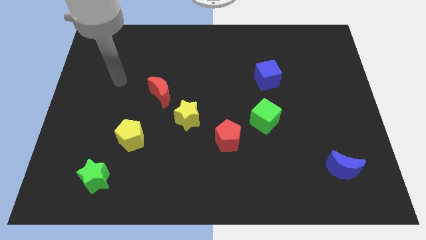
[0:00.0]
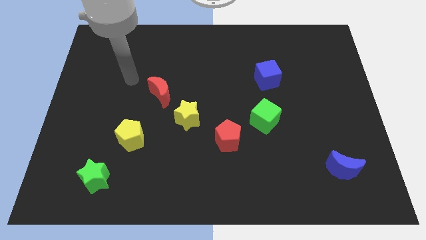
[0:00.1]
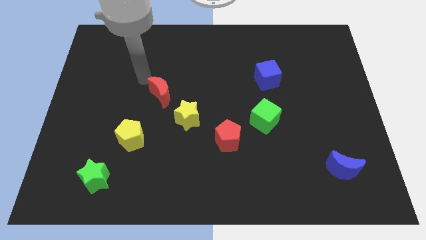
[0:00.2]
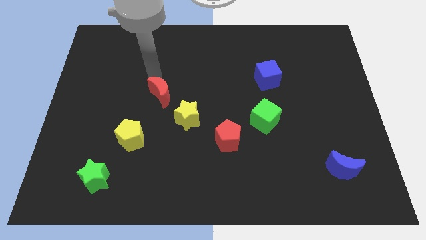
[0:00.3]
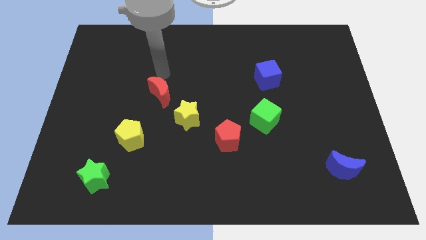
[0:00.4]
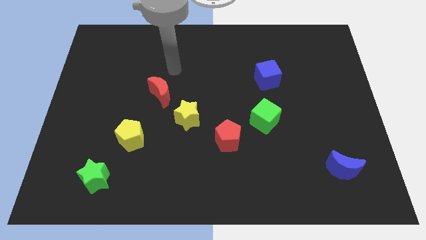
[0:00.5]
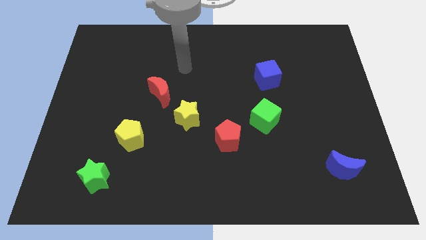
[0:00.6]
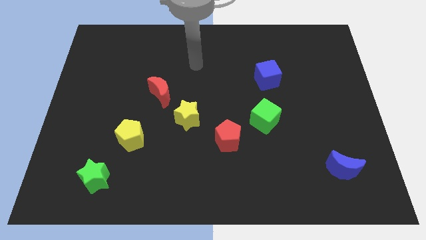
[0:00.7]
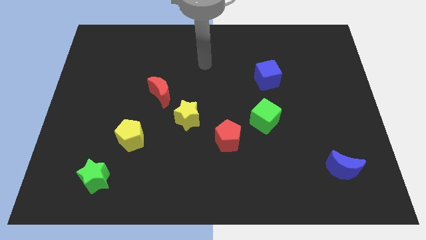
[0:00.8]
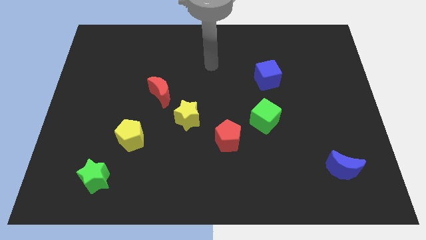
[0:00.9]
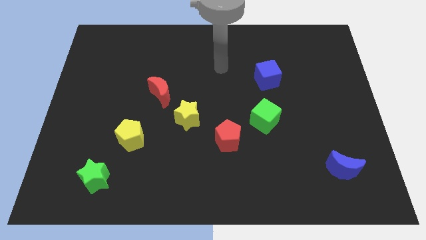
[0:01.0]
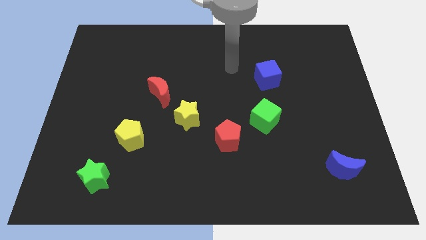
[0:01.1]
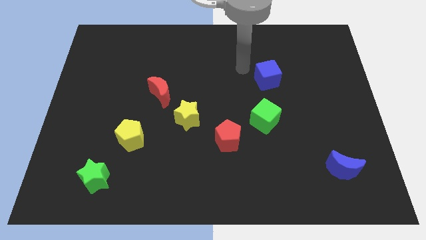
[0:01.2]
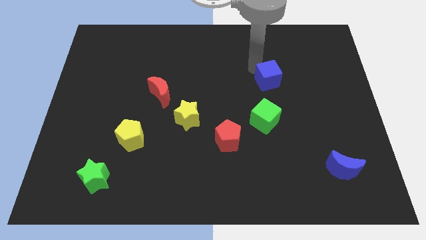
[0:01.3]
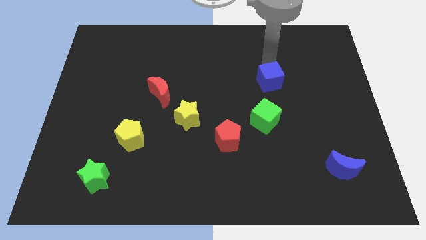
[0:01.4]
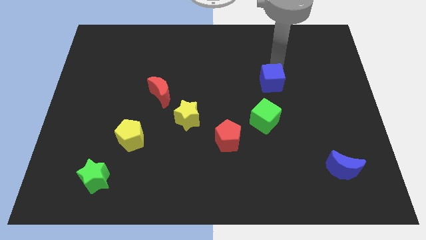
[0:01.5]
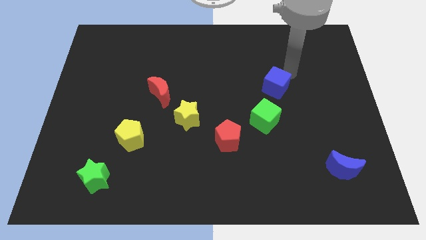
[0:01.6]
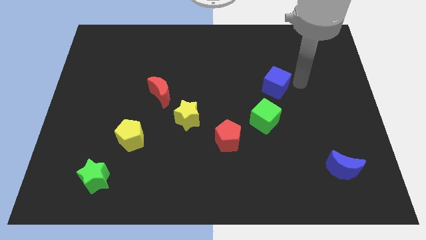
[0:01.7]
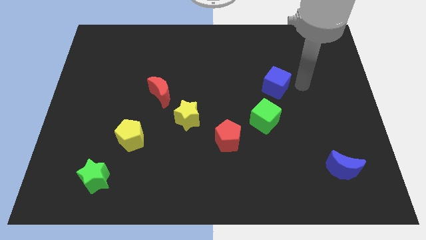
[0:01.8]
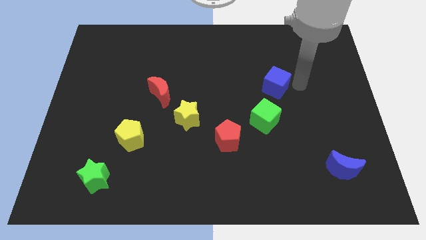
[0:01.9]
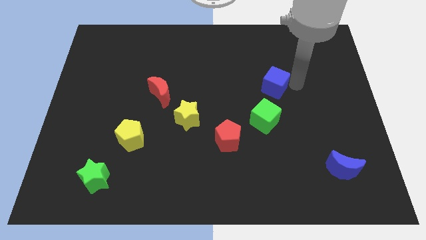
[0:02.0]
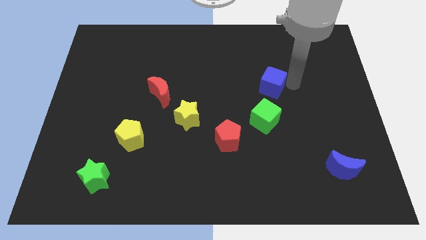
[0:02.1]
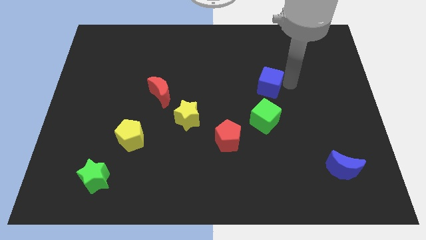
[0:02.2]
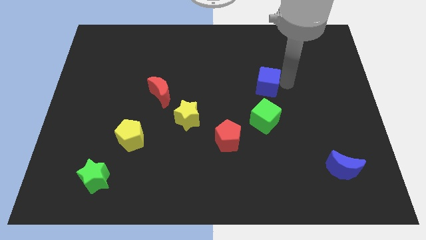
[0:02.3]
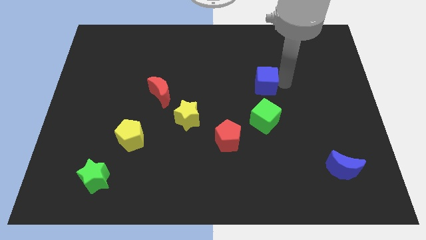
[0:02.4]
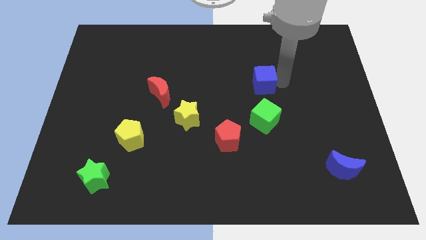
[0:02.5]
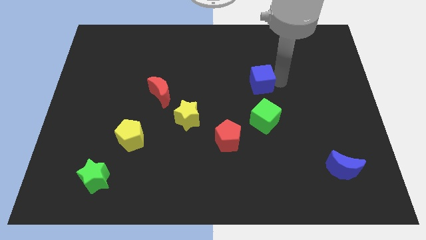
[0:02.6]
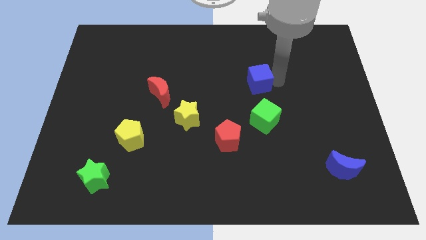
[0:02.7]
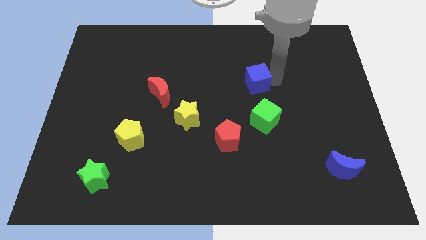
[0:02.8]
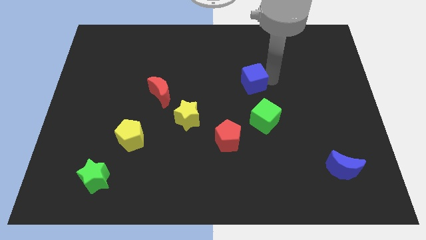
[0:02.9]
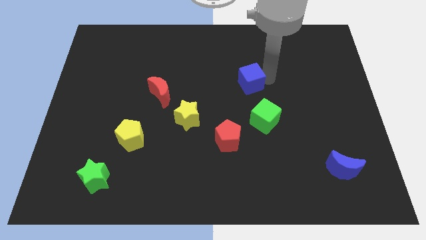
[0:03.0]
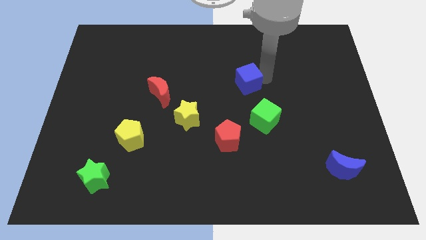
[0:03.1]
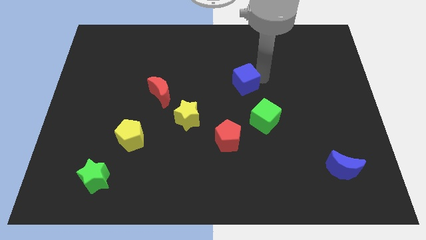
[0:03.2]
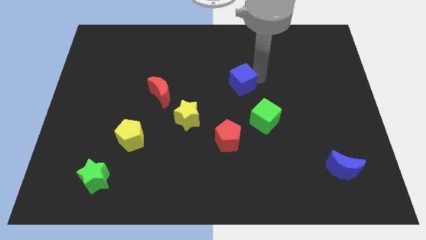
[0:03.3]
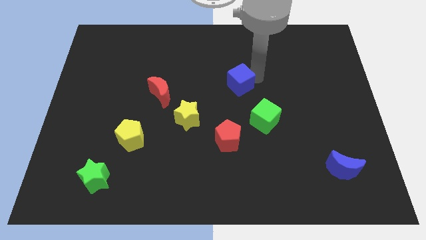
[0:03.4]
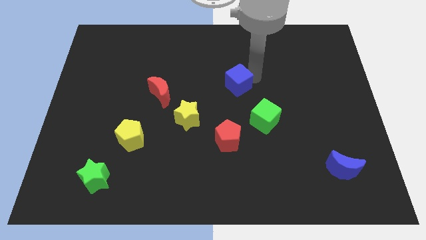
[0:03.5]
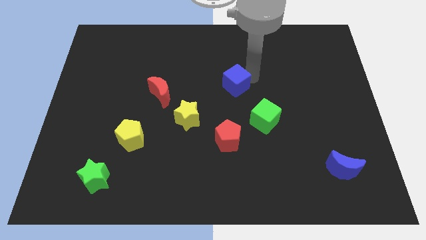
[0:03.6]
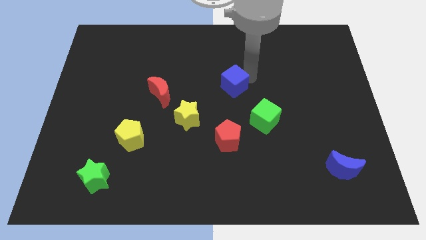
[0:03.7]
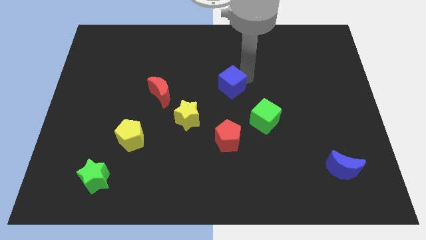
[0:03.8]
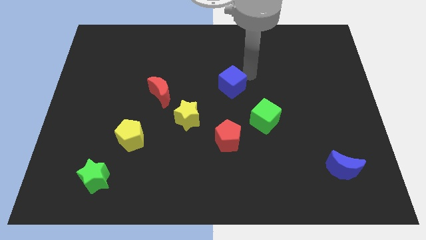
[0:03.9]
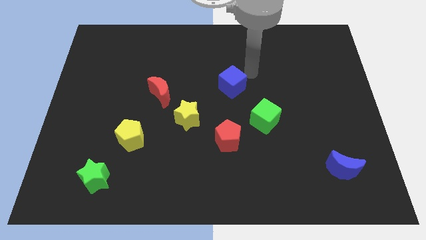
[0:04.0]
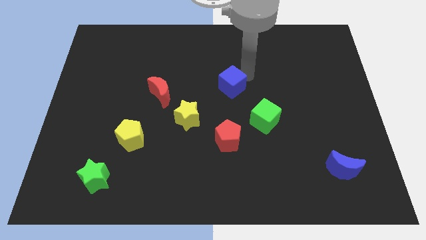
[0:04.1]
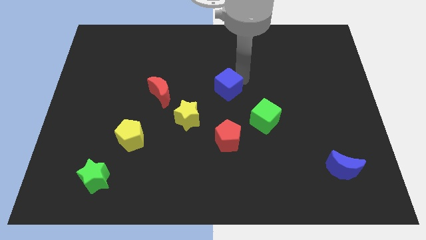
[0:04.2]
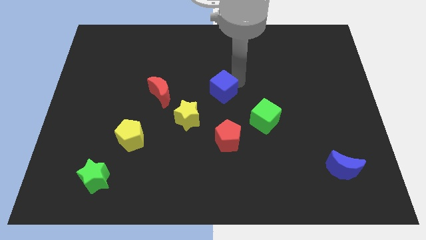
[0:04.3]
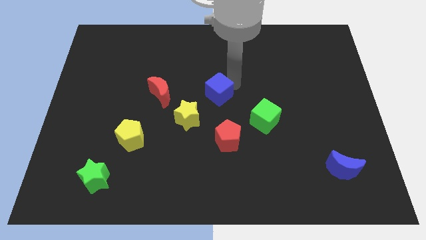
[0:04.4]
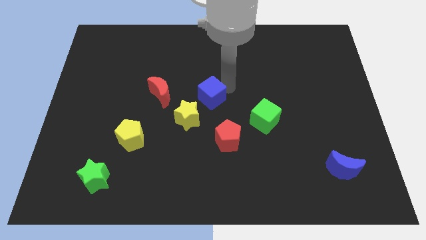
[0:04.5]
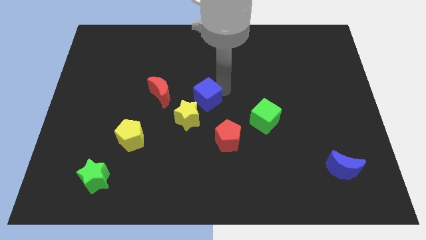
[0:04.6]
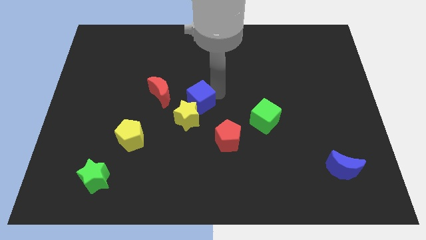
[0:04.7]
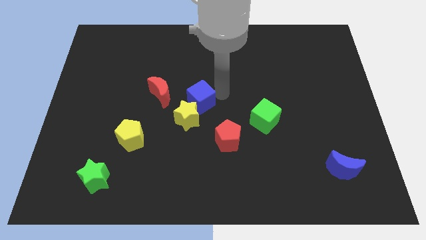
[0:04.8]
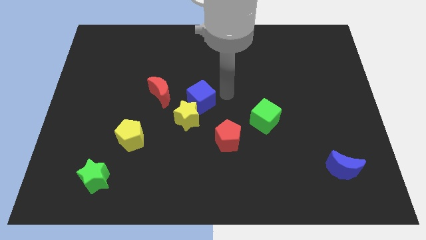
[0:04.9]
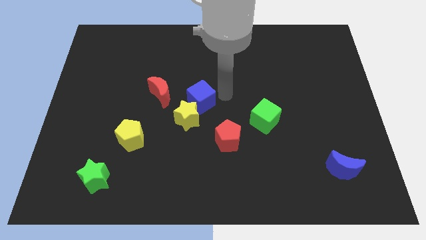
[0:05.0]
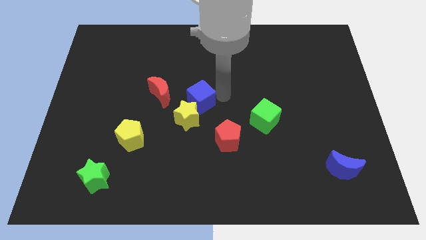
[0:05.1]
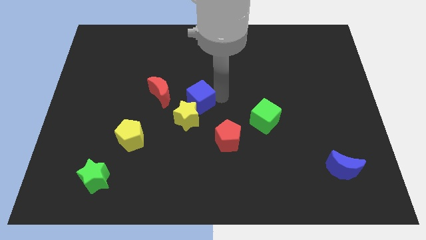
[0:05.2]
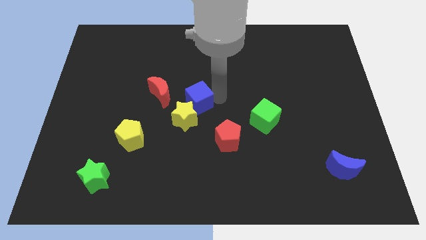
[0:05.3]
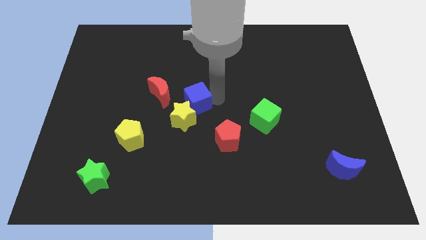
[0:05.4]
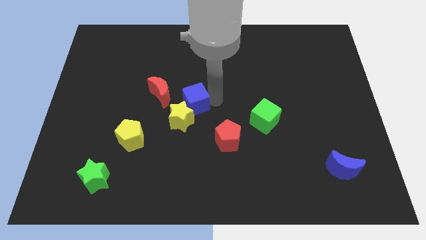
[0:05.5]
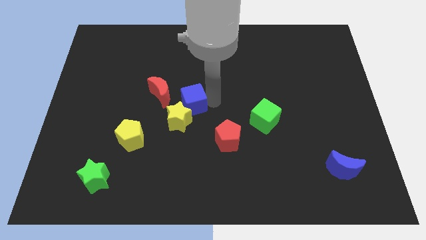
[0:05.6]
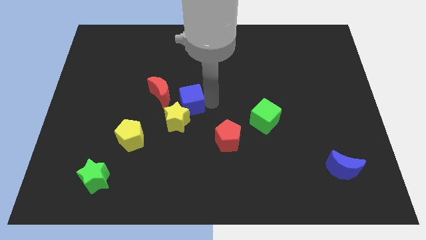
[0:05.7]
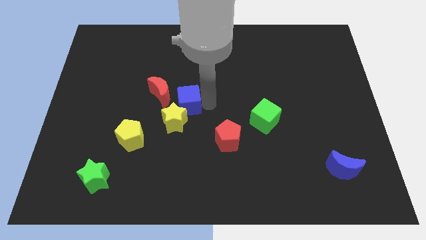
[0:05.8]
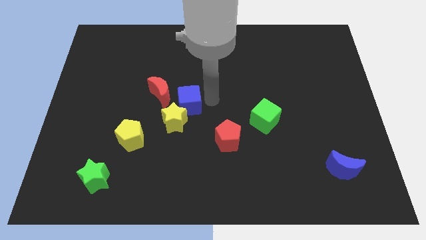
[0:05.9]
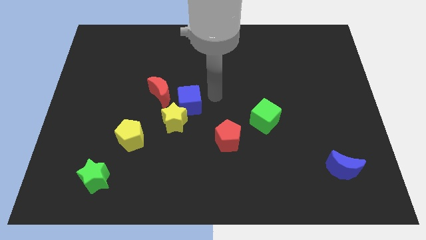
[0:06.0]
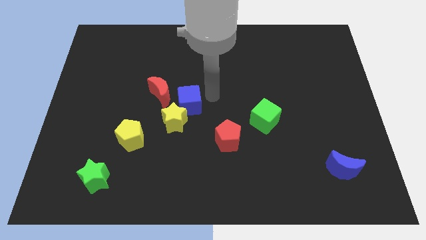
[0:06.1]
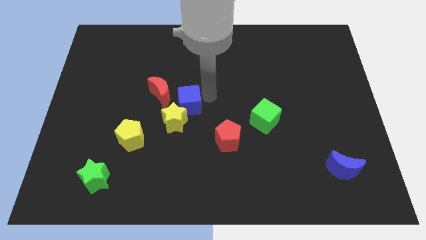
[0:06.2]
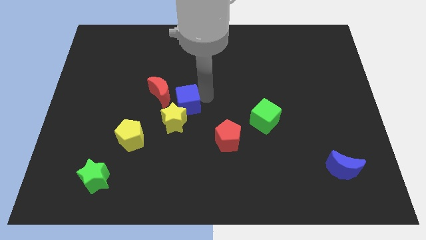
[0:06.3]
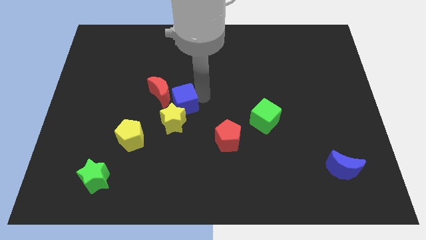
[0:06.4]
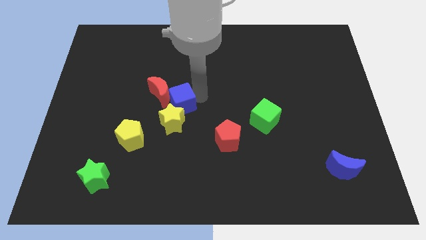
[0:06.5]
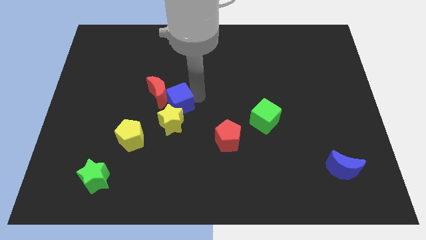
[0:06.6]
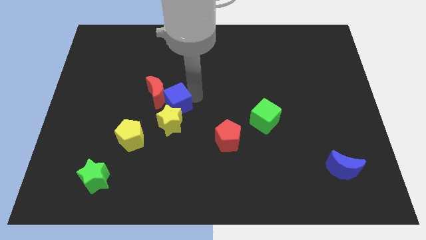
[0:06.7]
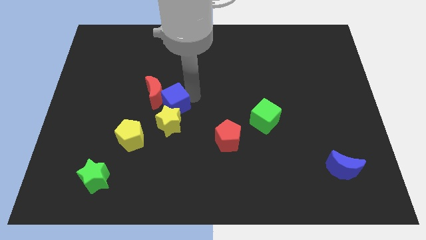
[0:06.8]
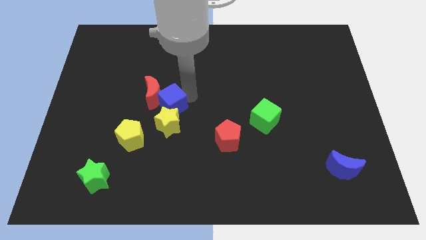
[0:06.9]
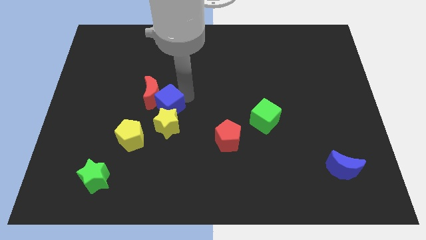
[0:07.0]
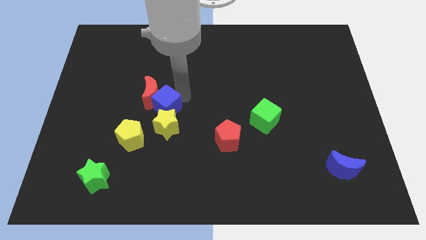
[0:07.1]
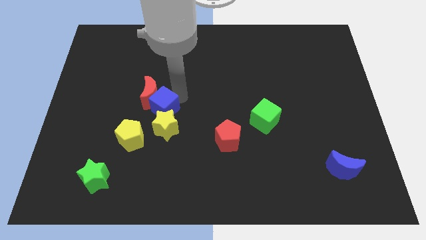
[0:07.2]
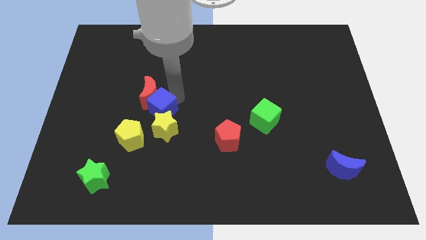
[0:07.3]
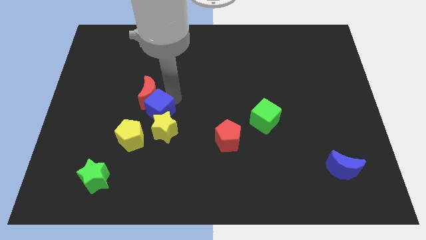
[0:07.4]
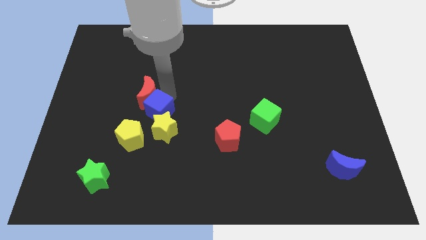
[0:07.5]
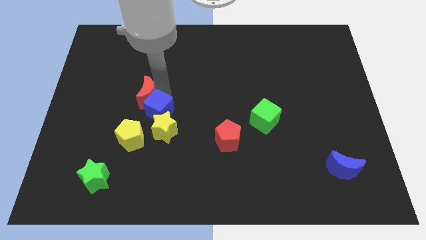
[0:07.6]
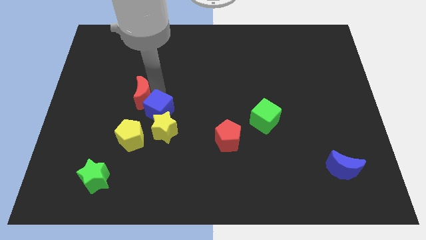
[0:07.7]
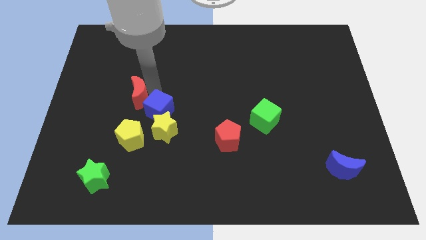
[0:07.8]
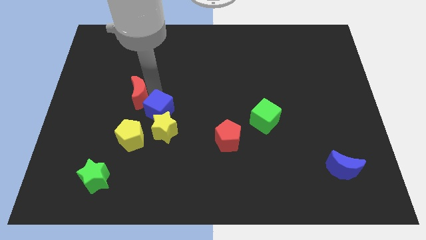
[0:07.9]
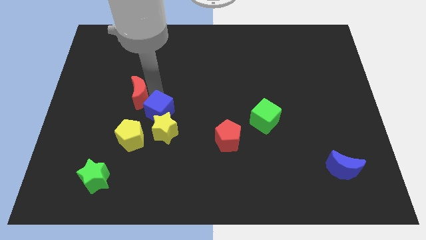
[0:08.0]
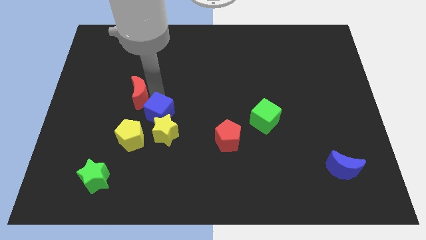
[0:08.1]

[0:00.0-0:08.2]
push the blue cube downwards and to the left
